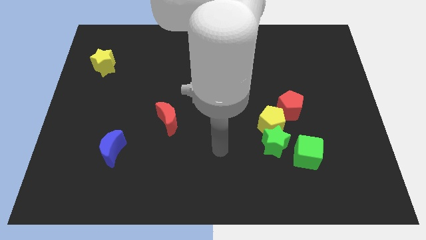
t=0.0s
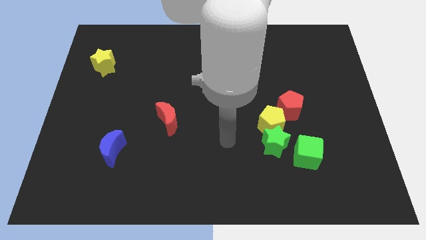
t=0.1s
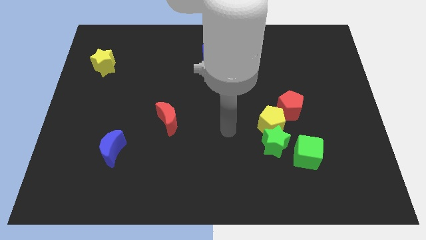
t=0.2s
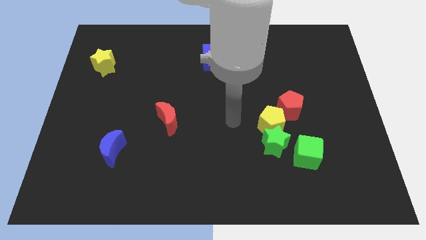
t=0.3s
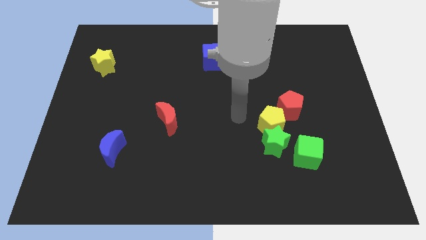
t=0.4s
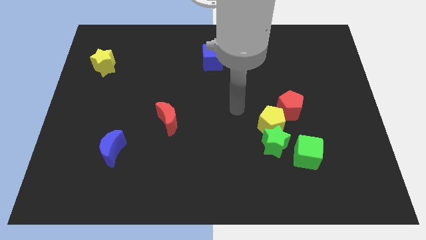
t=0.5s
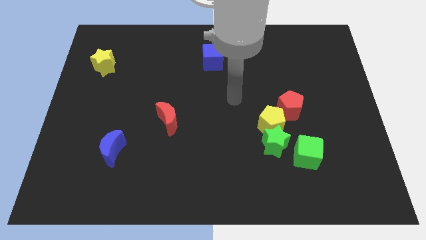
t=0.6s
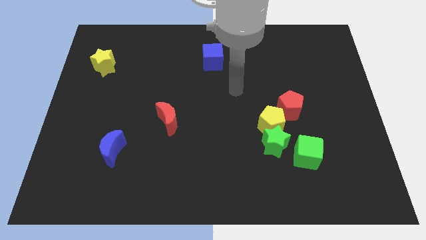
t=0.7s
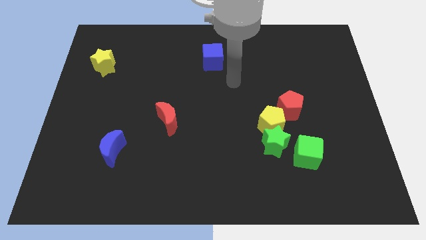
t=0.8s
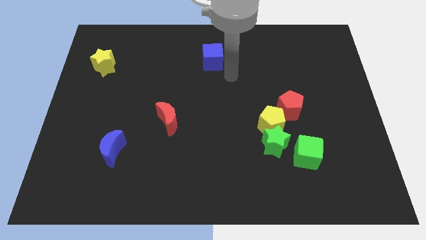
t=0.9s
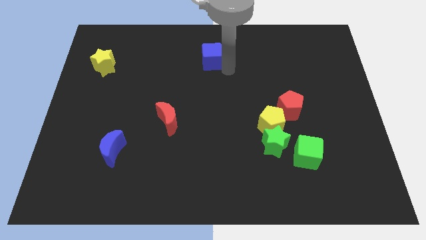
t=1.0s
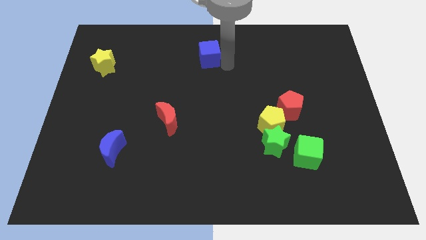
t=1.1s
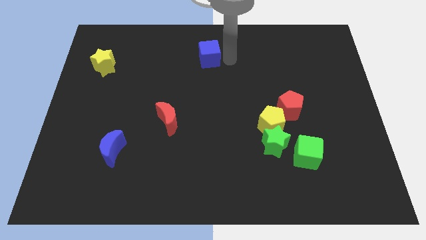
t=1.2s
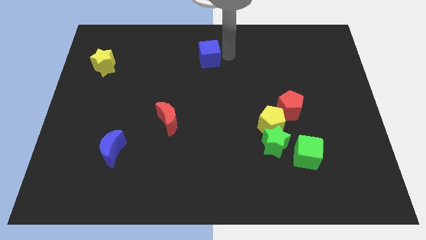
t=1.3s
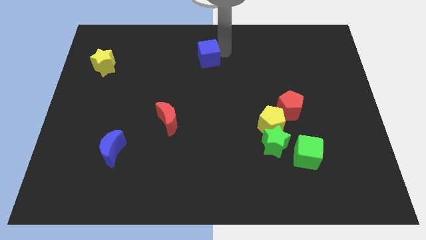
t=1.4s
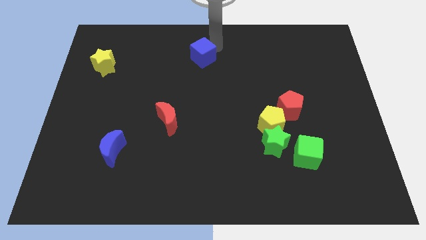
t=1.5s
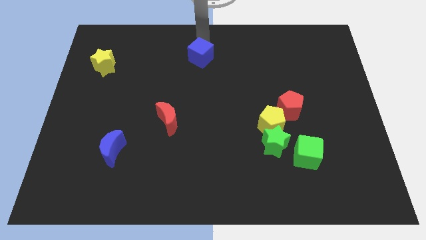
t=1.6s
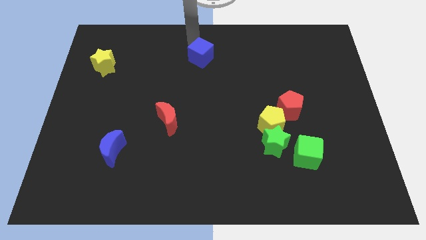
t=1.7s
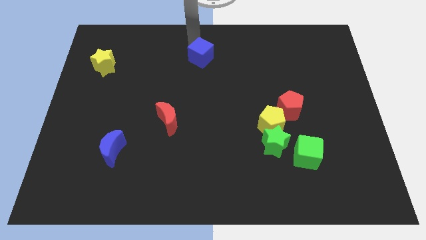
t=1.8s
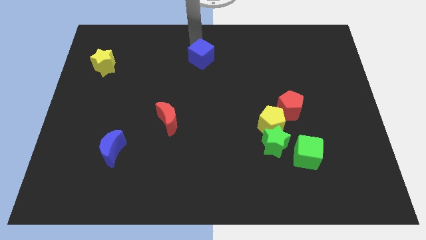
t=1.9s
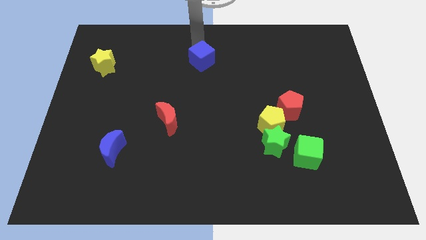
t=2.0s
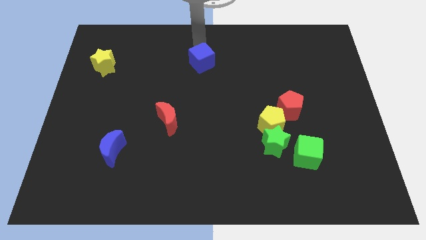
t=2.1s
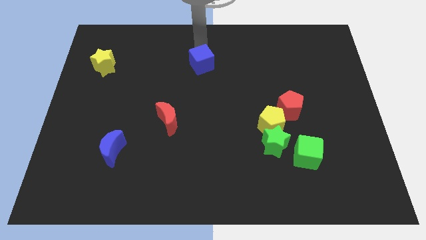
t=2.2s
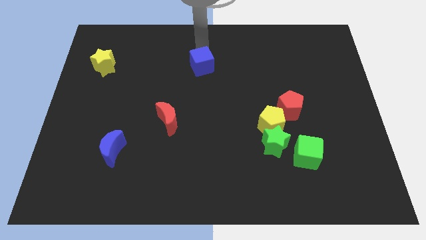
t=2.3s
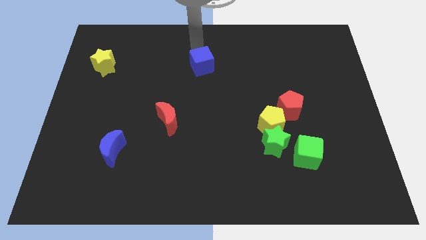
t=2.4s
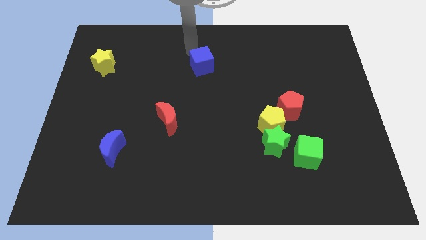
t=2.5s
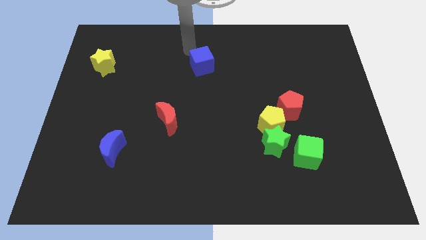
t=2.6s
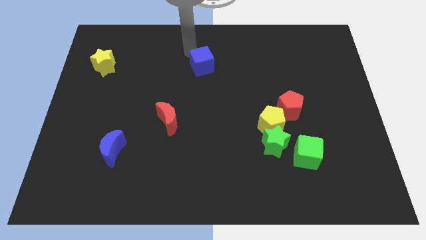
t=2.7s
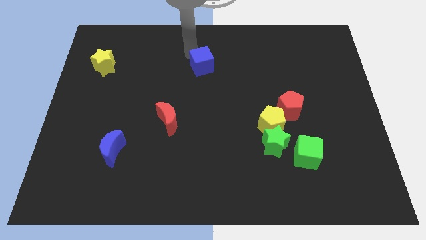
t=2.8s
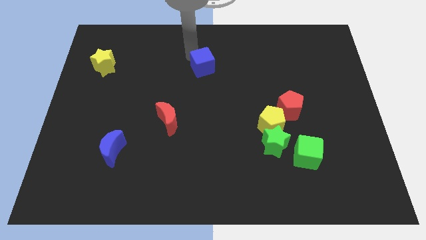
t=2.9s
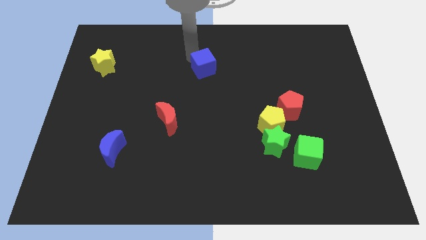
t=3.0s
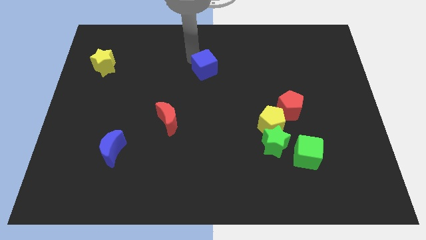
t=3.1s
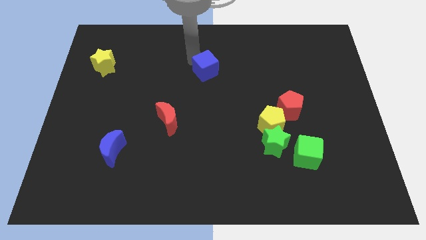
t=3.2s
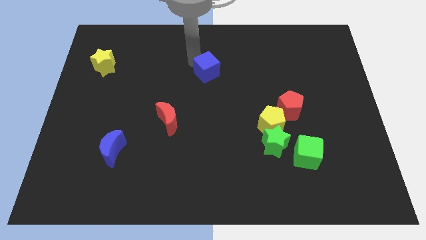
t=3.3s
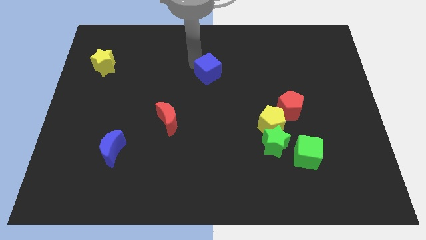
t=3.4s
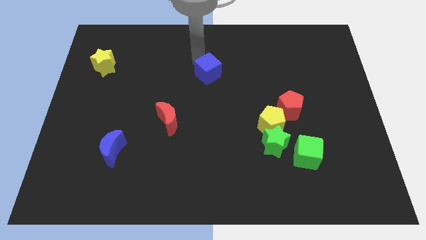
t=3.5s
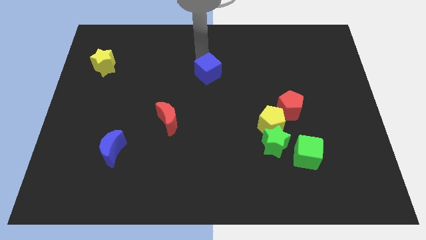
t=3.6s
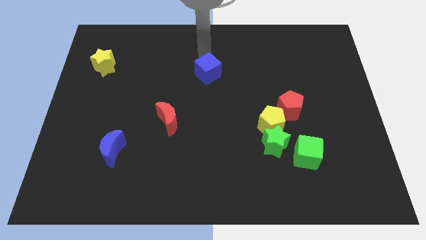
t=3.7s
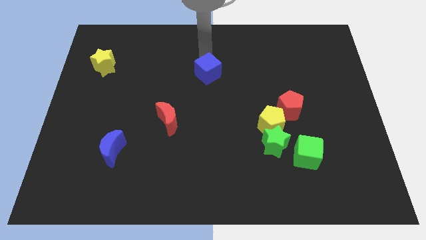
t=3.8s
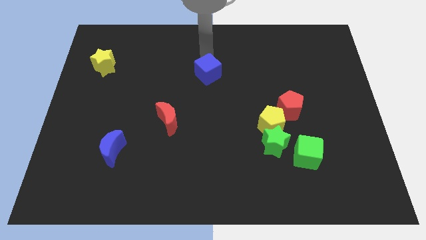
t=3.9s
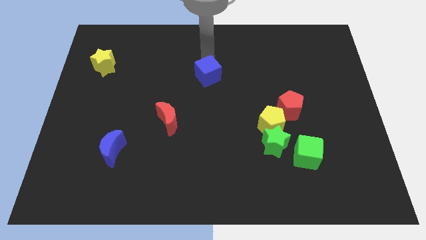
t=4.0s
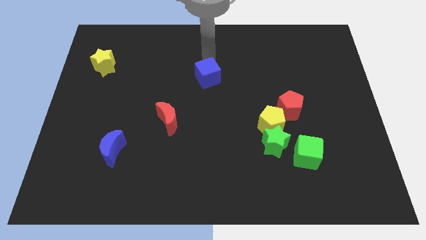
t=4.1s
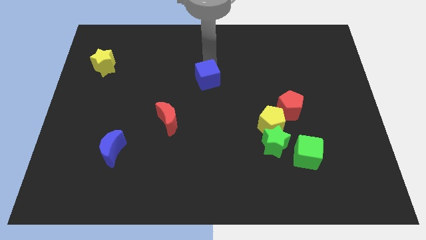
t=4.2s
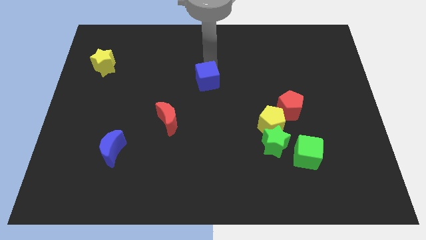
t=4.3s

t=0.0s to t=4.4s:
slightly push the blue cube down

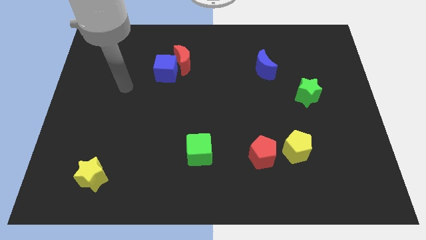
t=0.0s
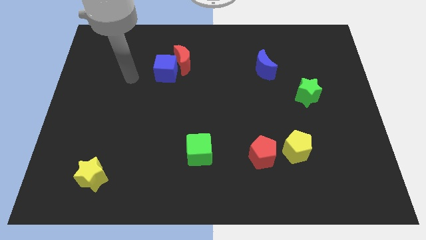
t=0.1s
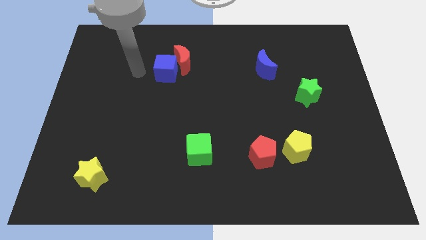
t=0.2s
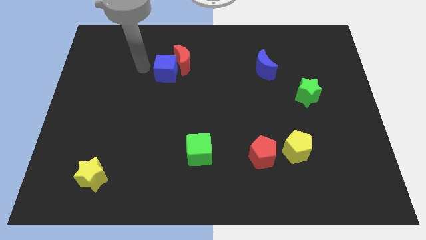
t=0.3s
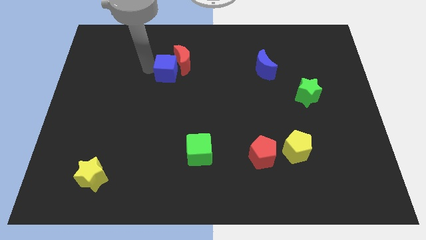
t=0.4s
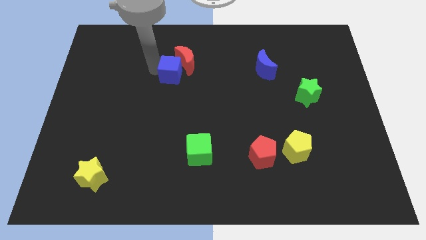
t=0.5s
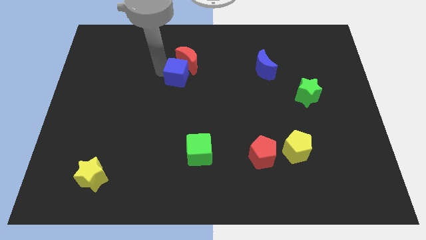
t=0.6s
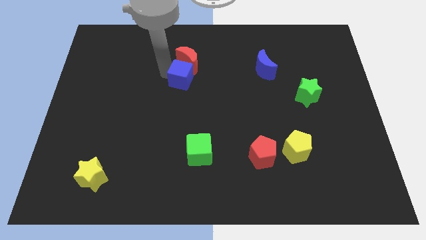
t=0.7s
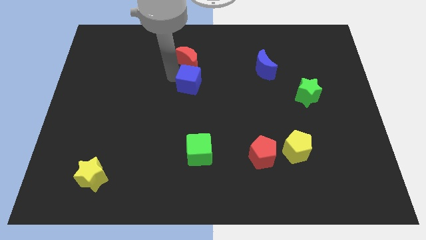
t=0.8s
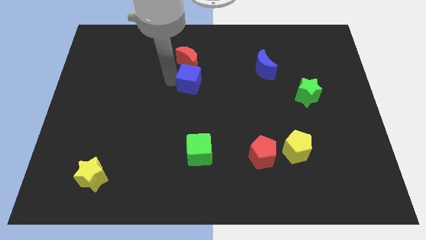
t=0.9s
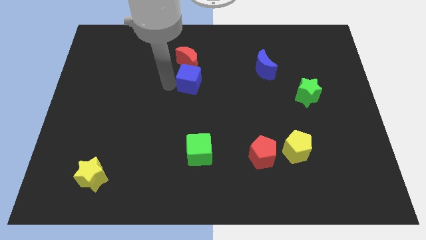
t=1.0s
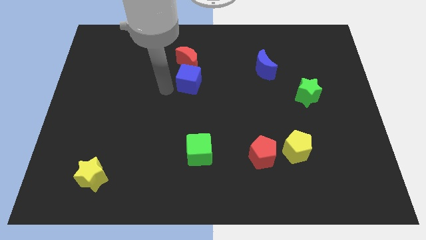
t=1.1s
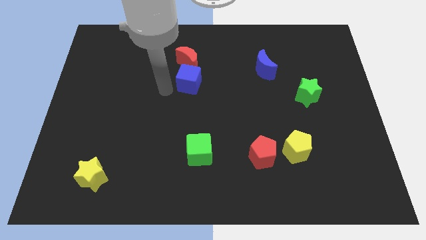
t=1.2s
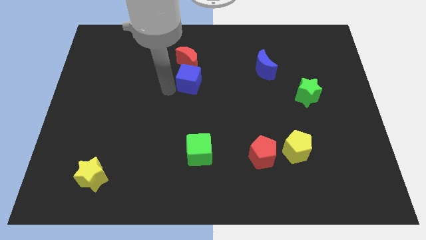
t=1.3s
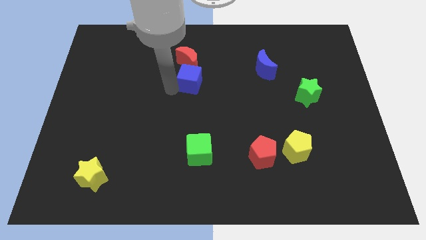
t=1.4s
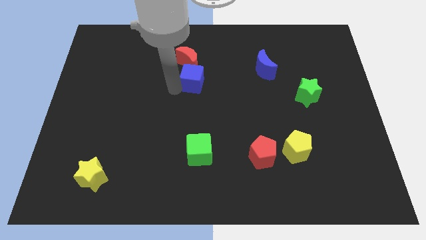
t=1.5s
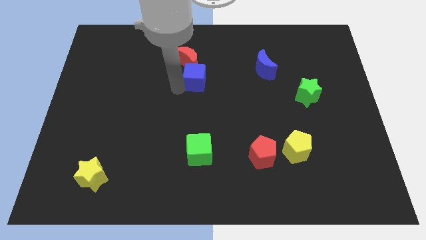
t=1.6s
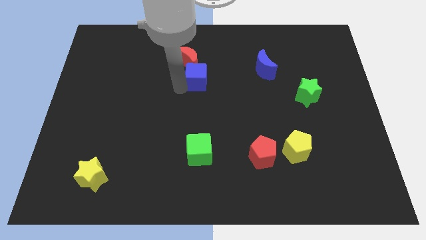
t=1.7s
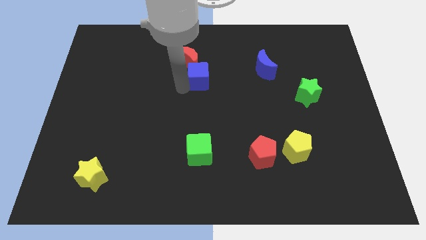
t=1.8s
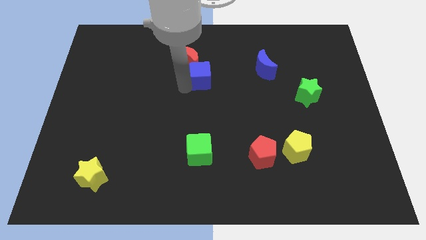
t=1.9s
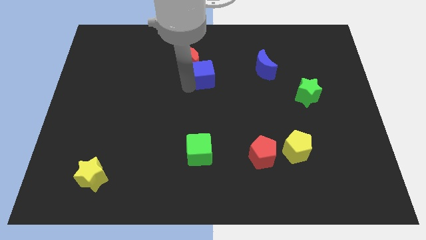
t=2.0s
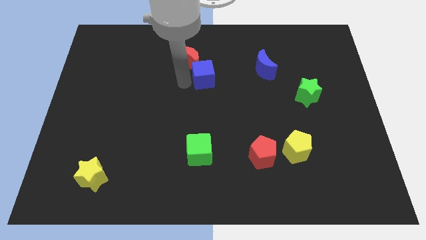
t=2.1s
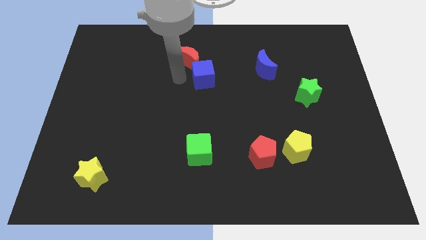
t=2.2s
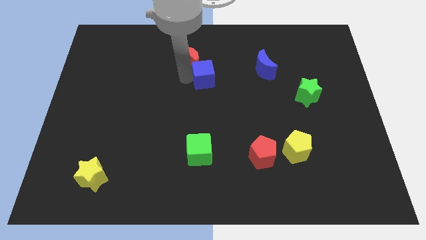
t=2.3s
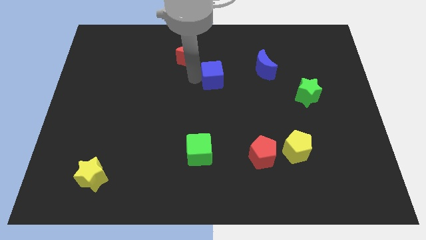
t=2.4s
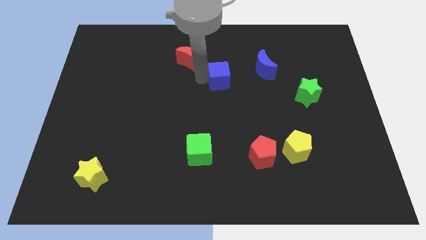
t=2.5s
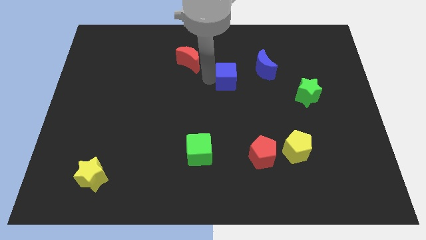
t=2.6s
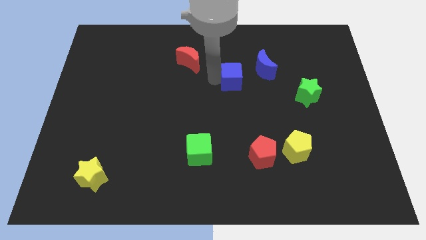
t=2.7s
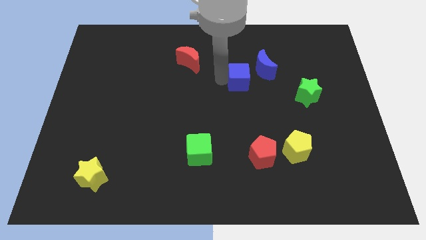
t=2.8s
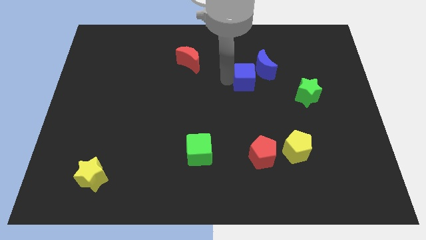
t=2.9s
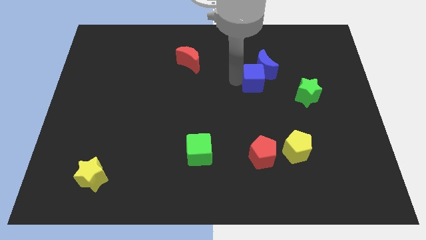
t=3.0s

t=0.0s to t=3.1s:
slide the blue cube right

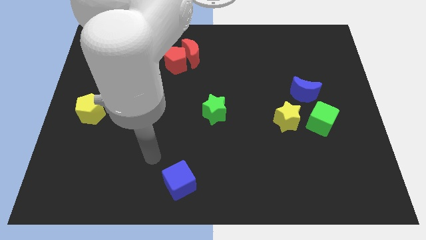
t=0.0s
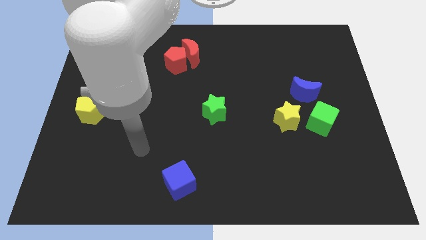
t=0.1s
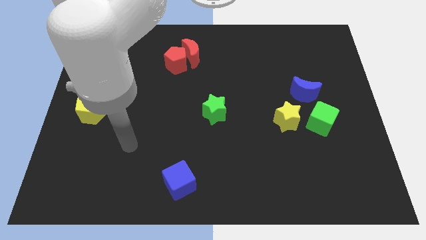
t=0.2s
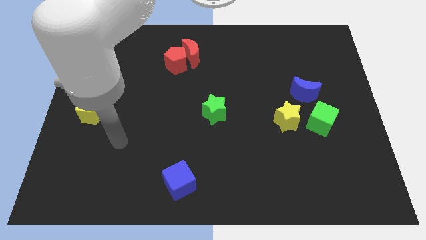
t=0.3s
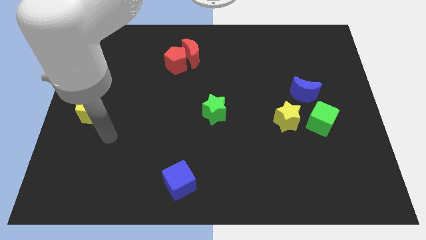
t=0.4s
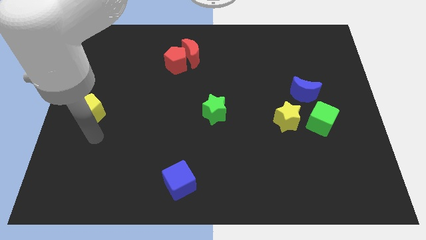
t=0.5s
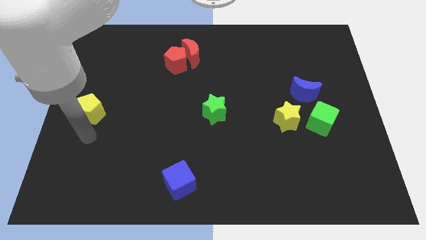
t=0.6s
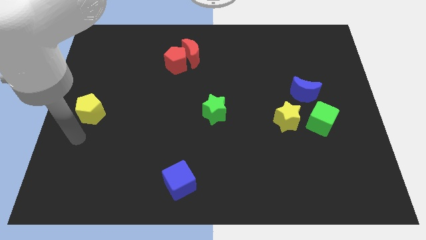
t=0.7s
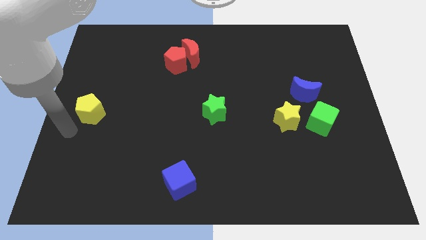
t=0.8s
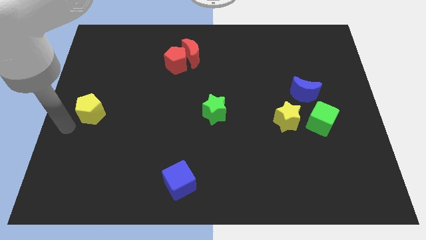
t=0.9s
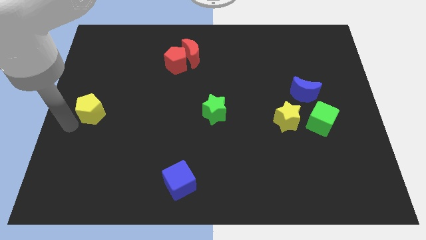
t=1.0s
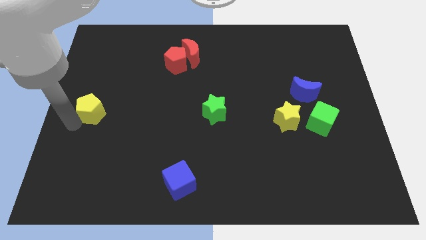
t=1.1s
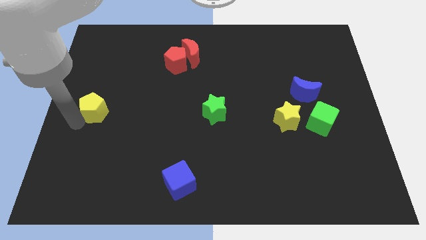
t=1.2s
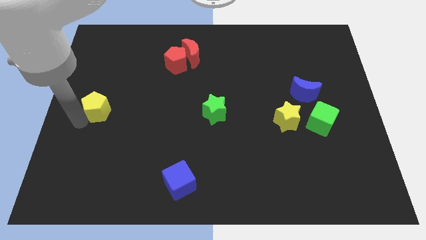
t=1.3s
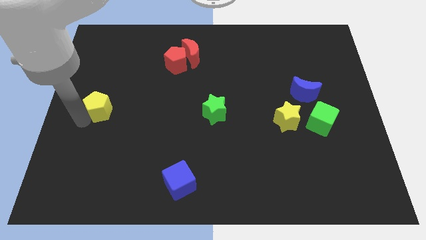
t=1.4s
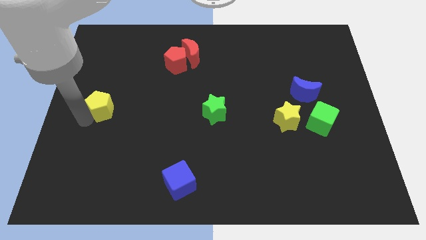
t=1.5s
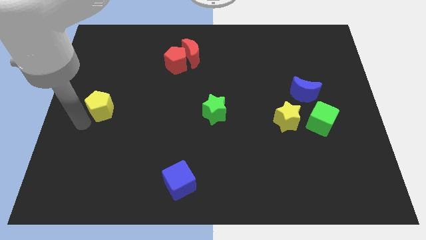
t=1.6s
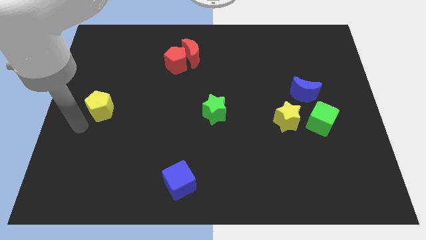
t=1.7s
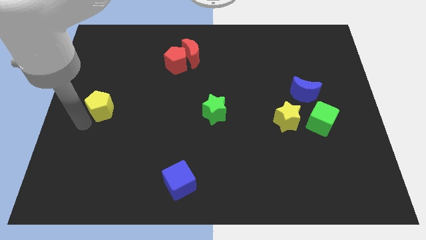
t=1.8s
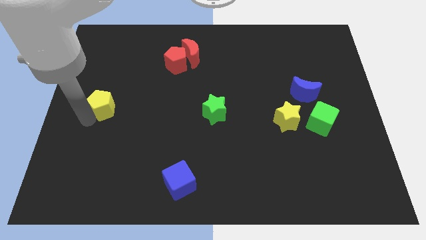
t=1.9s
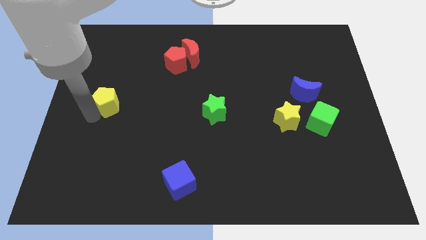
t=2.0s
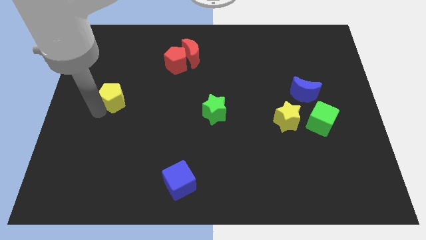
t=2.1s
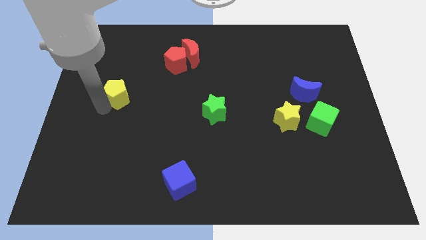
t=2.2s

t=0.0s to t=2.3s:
move the yellow pentagon slightly upwards and to the right
